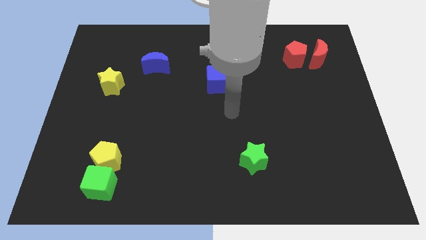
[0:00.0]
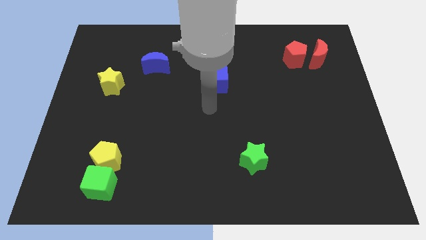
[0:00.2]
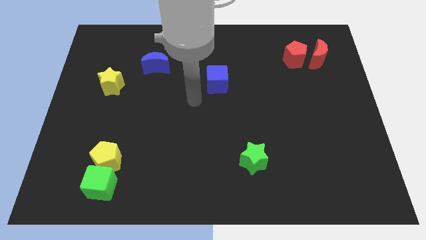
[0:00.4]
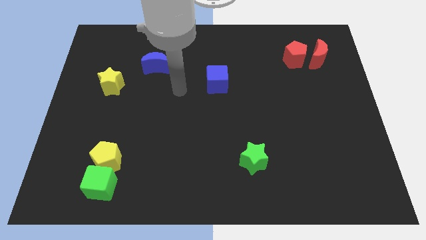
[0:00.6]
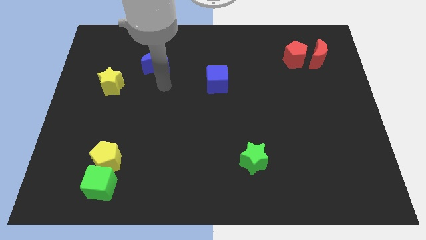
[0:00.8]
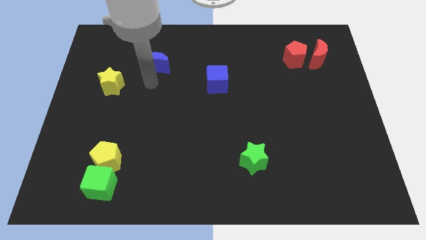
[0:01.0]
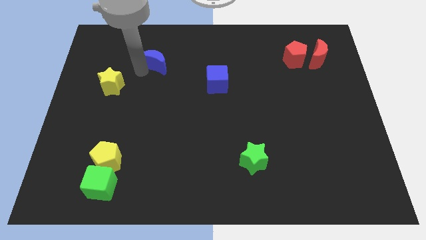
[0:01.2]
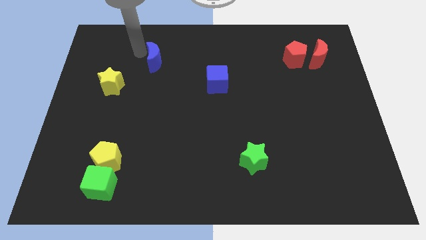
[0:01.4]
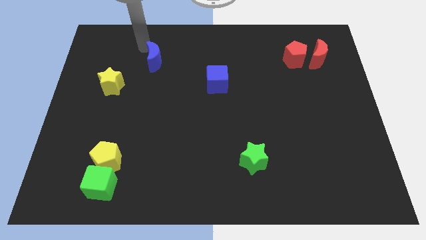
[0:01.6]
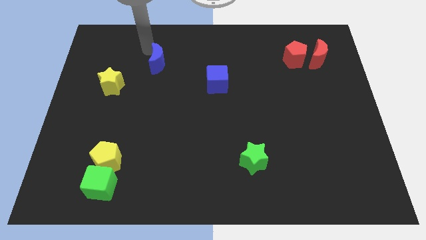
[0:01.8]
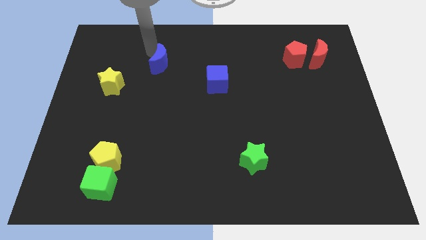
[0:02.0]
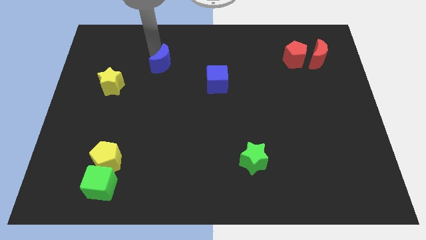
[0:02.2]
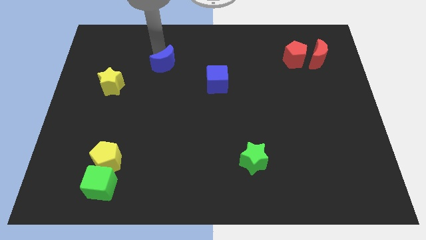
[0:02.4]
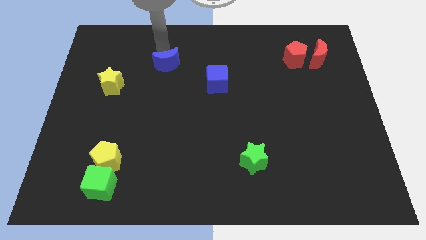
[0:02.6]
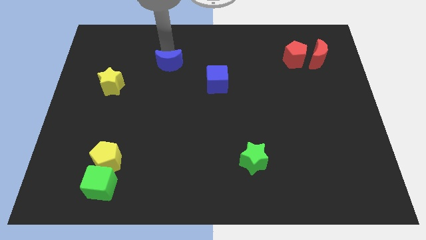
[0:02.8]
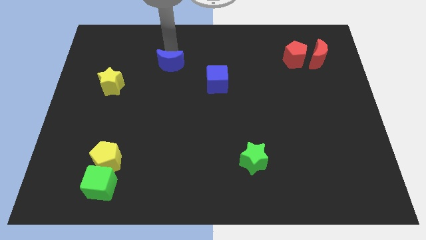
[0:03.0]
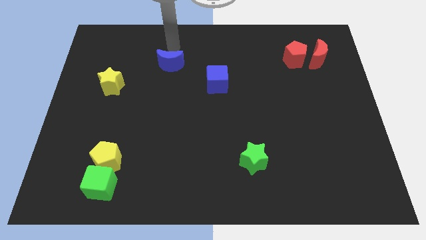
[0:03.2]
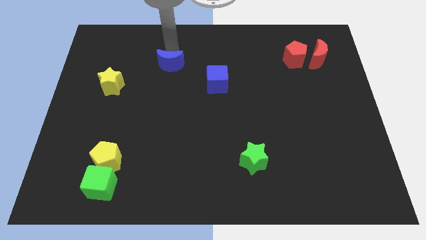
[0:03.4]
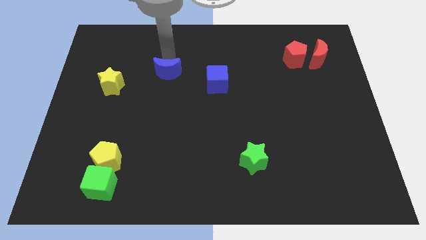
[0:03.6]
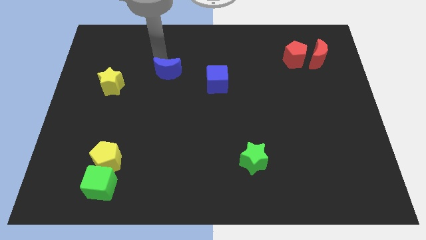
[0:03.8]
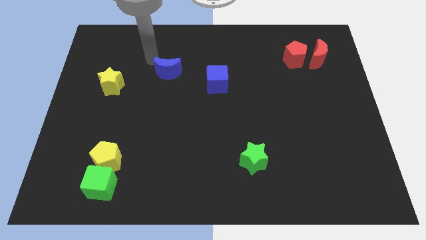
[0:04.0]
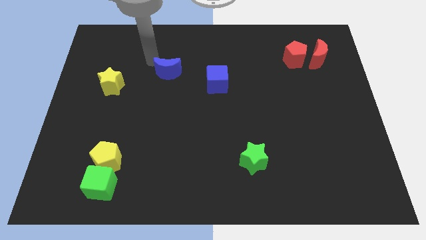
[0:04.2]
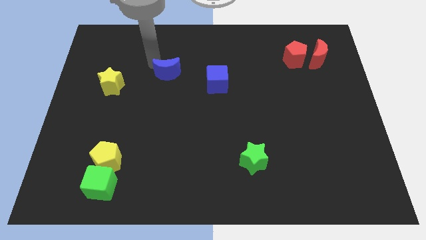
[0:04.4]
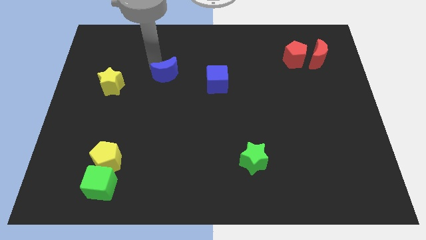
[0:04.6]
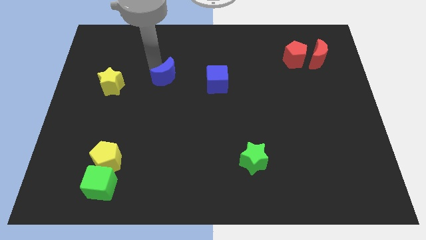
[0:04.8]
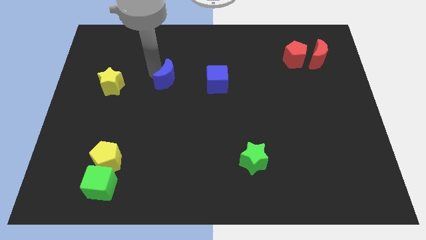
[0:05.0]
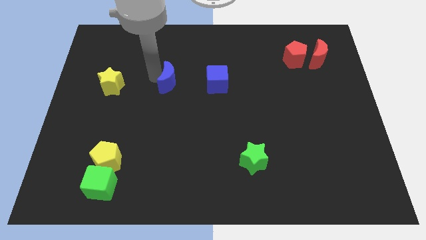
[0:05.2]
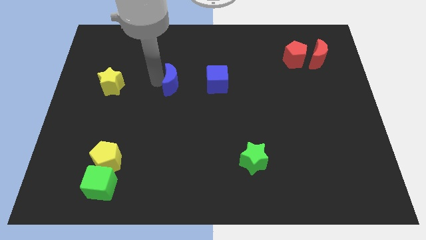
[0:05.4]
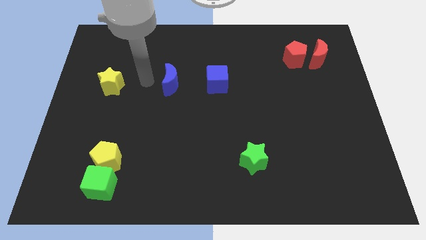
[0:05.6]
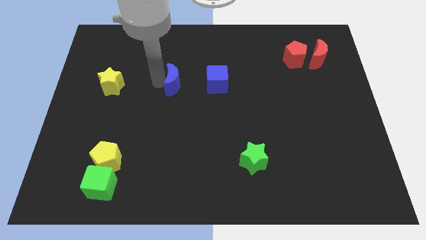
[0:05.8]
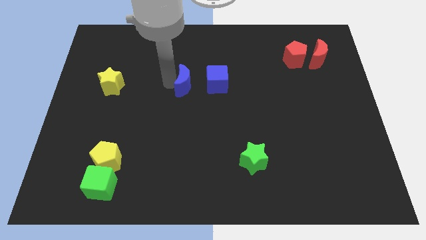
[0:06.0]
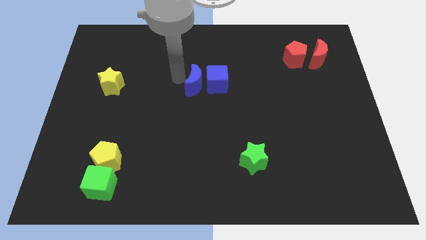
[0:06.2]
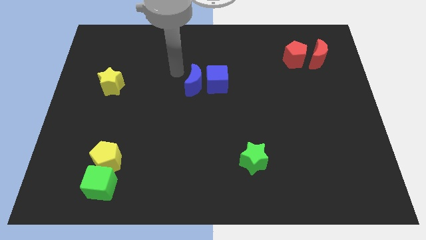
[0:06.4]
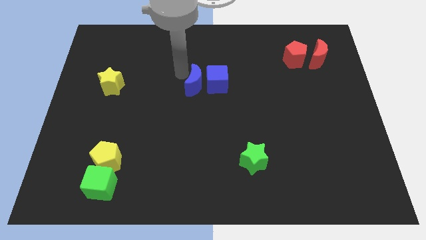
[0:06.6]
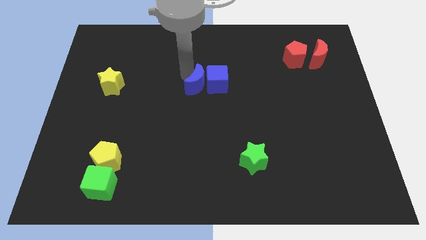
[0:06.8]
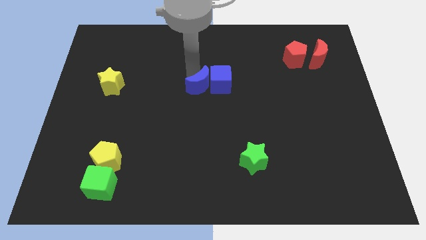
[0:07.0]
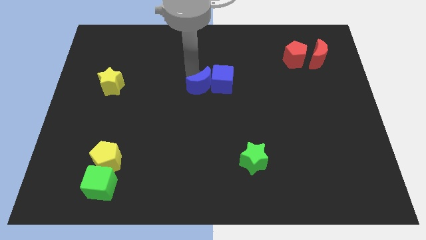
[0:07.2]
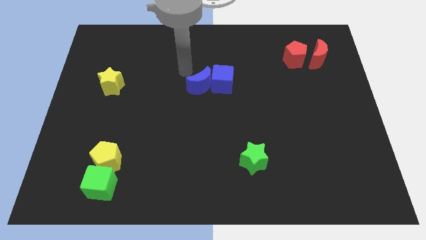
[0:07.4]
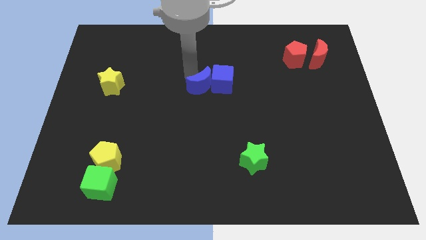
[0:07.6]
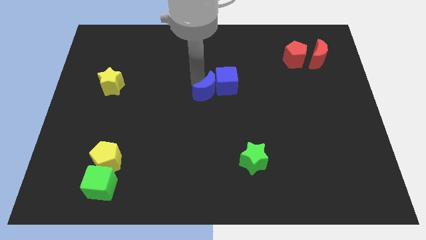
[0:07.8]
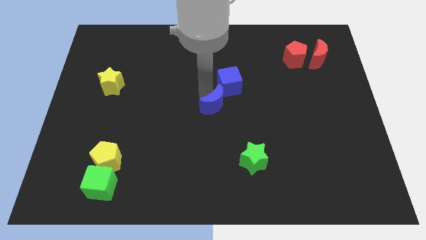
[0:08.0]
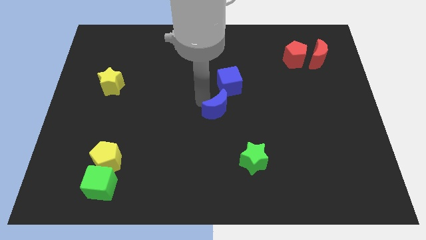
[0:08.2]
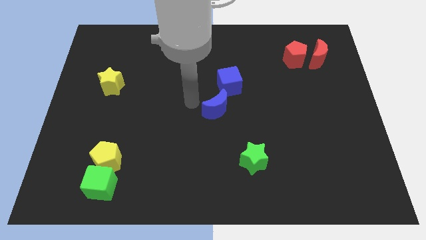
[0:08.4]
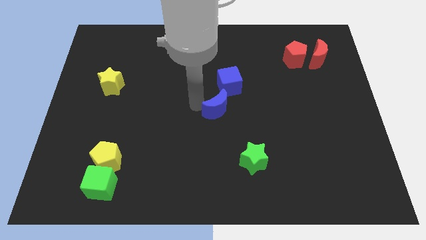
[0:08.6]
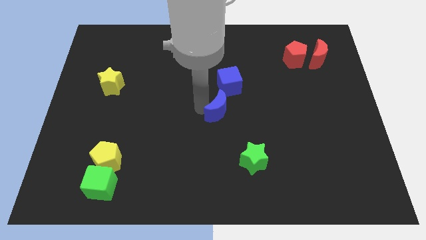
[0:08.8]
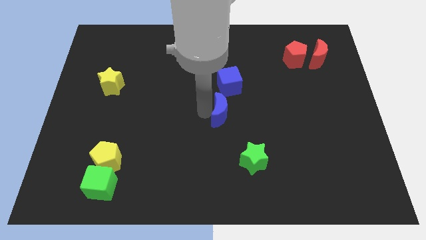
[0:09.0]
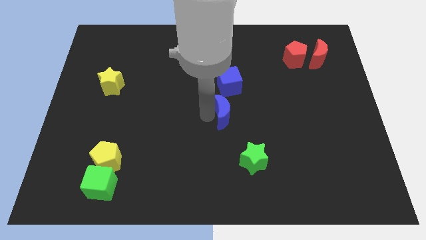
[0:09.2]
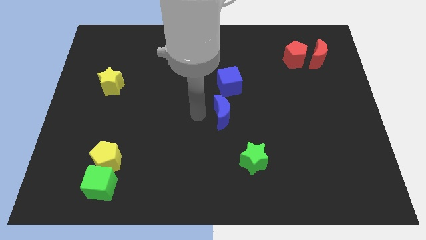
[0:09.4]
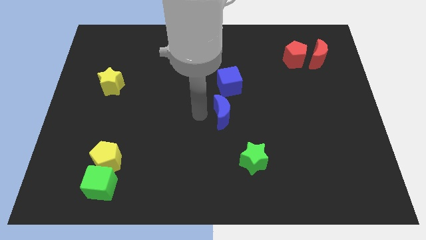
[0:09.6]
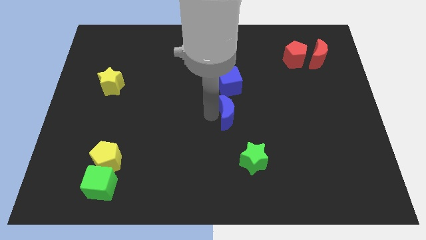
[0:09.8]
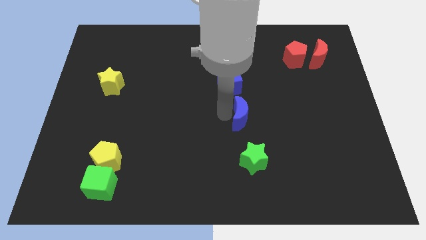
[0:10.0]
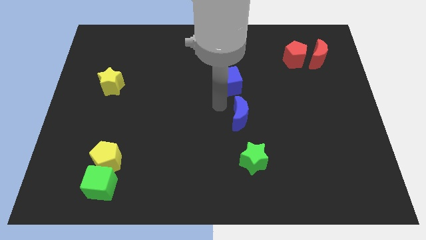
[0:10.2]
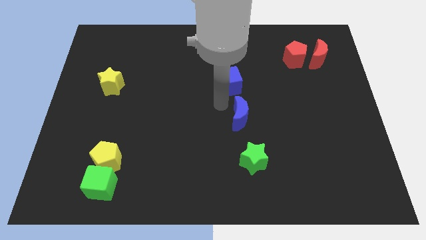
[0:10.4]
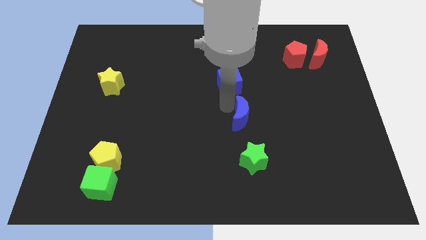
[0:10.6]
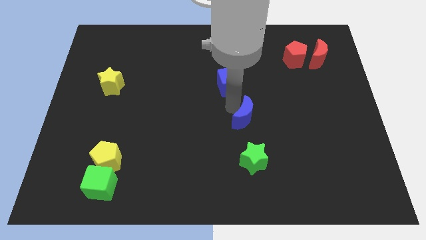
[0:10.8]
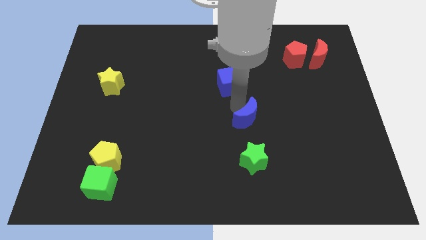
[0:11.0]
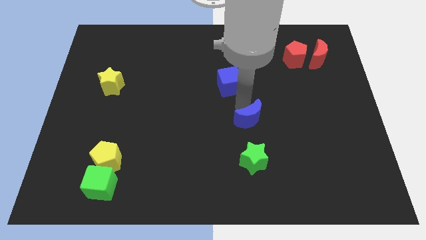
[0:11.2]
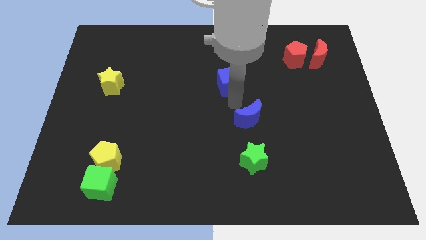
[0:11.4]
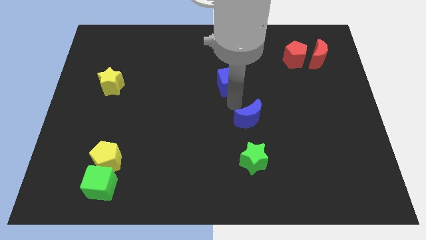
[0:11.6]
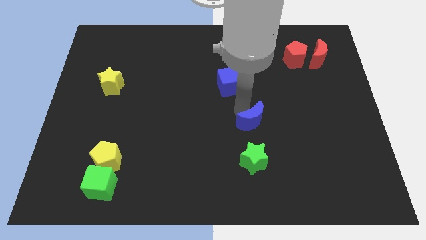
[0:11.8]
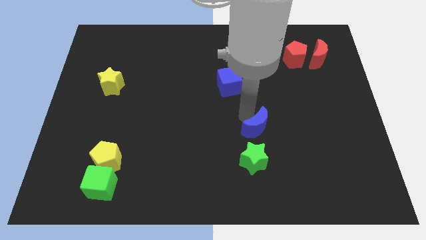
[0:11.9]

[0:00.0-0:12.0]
put the blue moon diagonally up and to the right of the green star

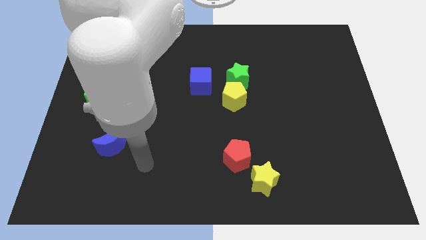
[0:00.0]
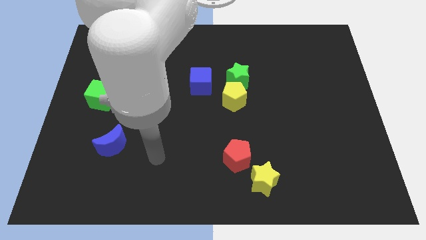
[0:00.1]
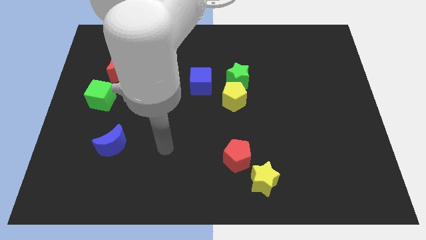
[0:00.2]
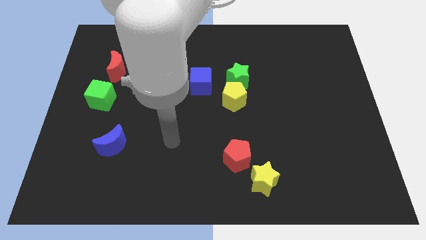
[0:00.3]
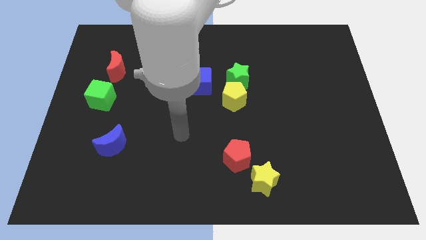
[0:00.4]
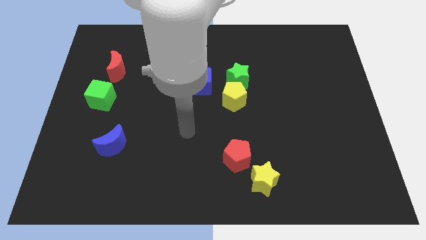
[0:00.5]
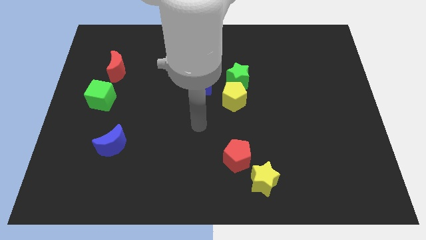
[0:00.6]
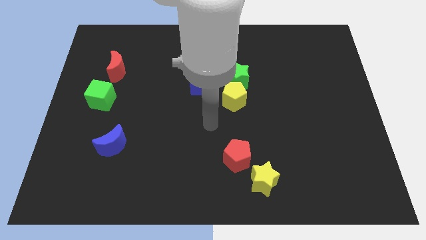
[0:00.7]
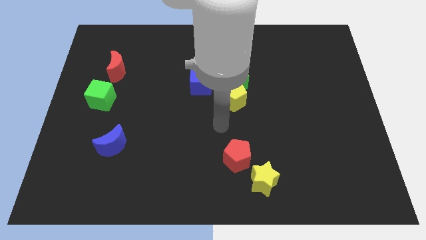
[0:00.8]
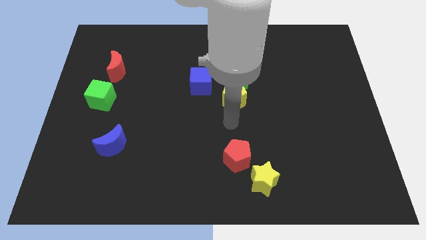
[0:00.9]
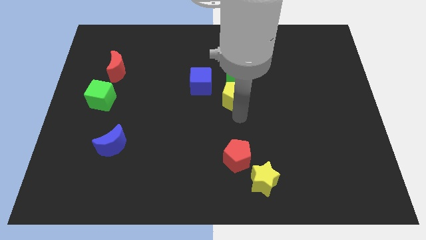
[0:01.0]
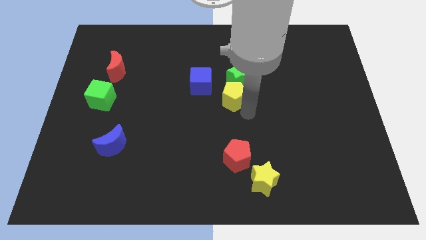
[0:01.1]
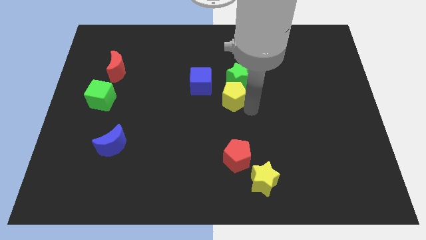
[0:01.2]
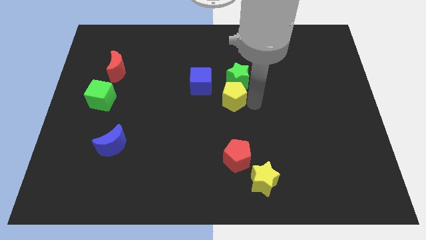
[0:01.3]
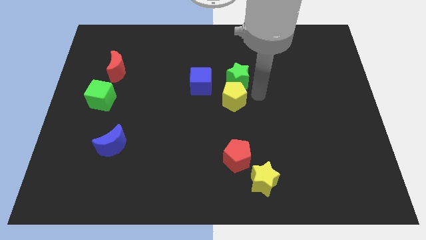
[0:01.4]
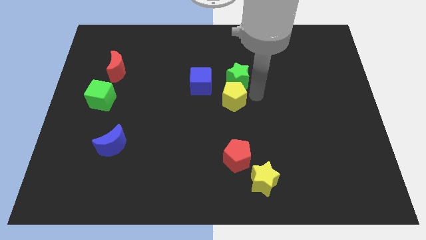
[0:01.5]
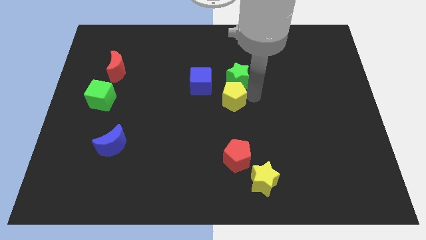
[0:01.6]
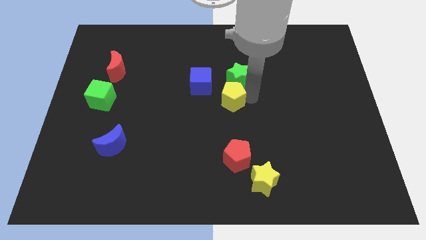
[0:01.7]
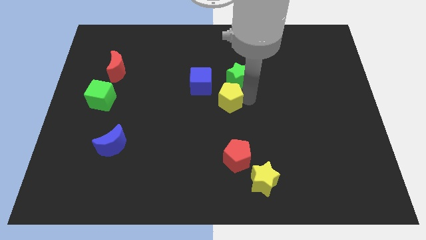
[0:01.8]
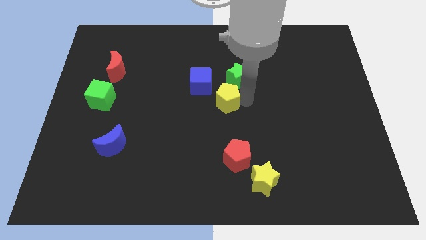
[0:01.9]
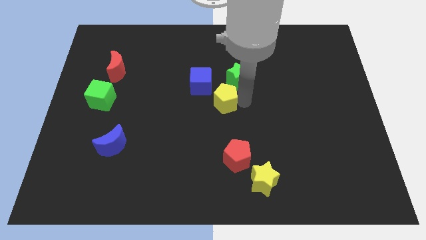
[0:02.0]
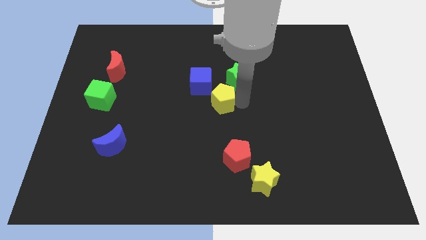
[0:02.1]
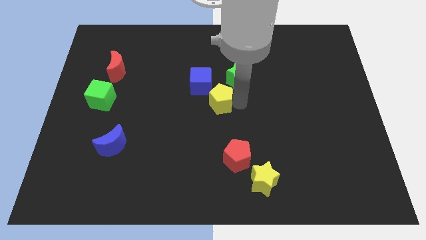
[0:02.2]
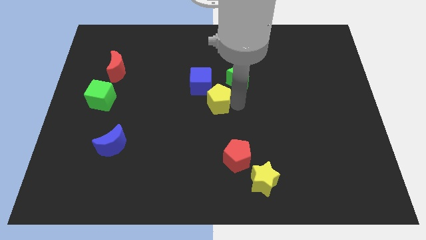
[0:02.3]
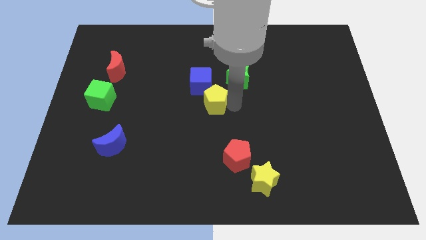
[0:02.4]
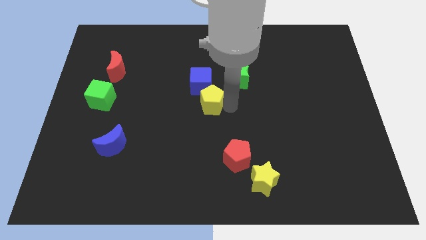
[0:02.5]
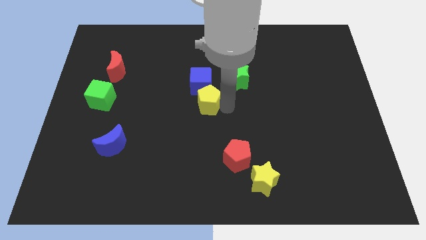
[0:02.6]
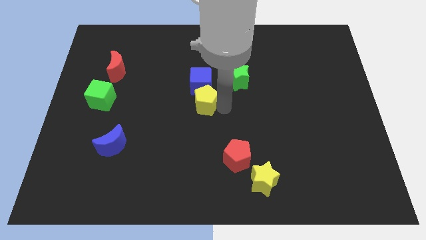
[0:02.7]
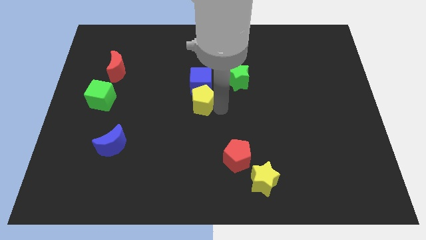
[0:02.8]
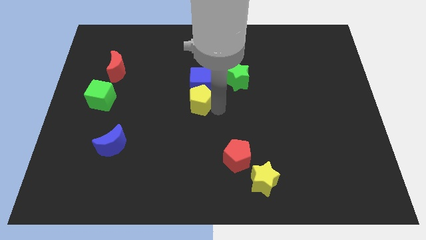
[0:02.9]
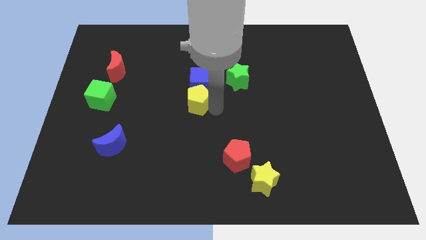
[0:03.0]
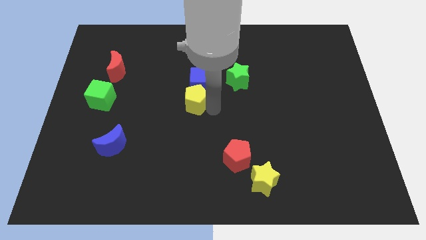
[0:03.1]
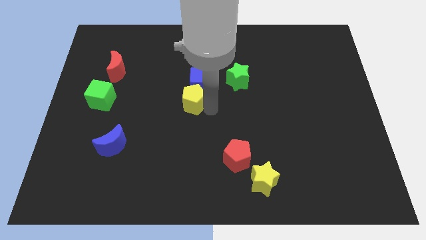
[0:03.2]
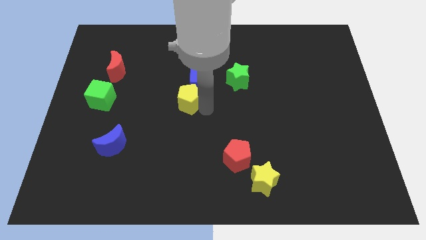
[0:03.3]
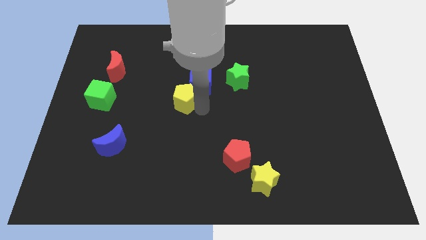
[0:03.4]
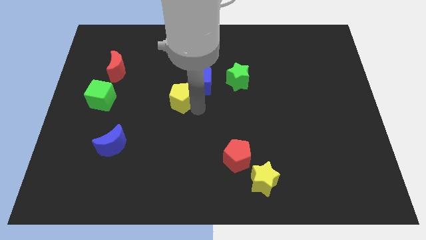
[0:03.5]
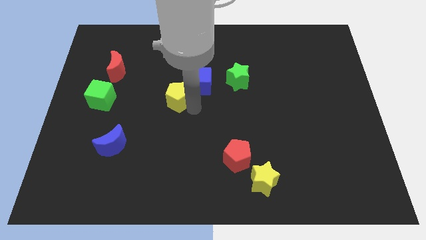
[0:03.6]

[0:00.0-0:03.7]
move the yellow pentagon to the left of the blue cube
